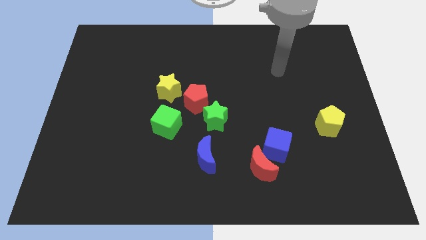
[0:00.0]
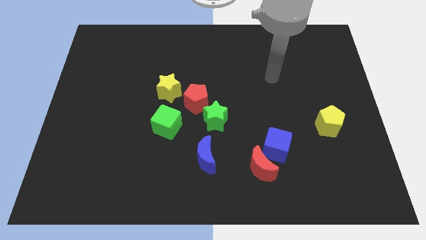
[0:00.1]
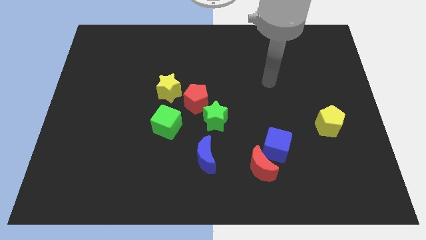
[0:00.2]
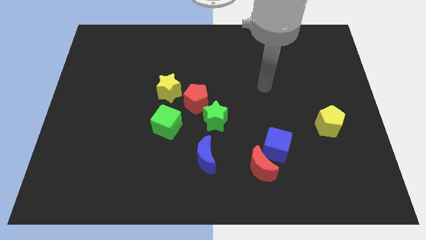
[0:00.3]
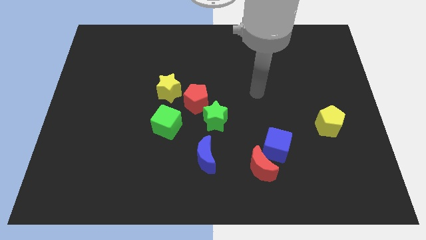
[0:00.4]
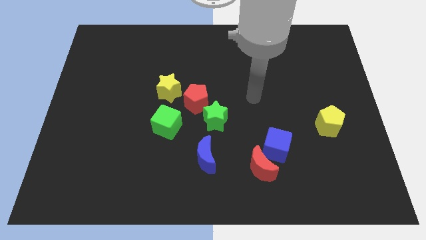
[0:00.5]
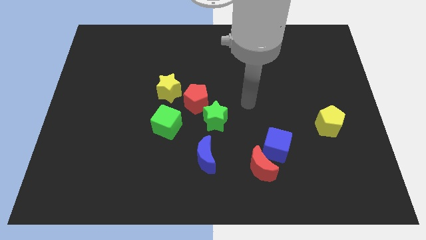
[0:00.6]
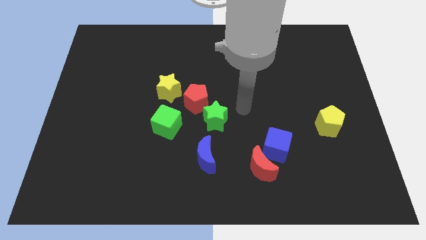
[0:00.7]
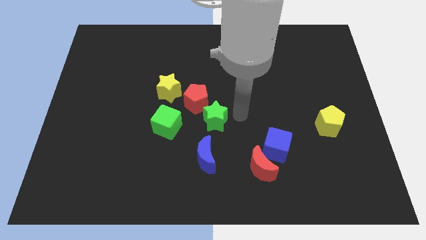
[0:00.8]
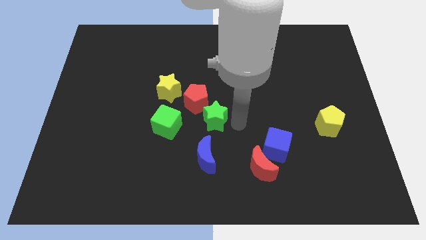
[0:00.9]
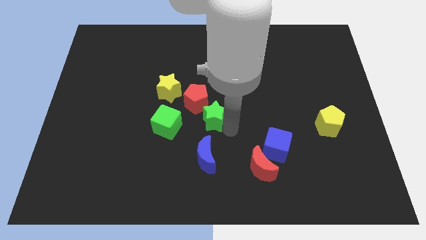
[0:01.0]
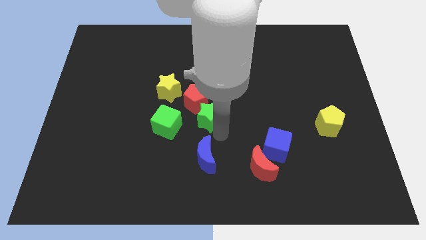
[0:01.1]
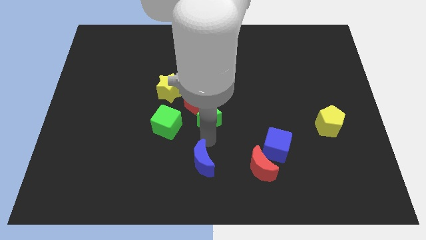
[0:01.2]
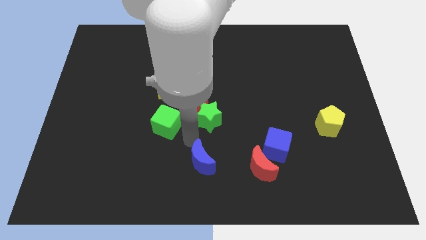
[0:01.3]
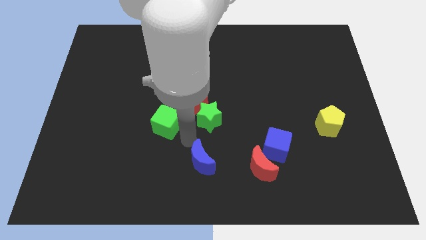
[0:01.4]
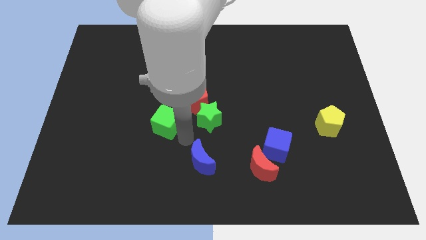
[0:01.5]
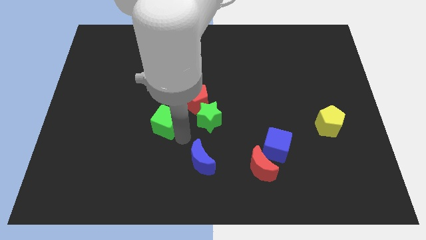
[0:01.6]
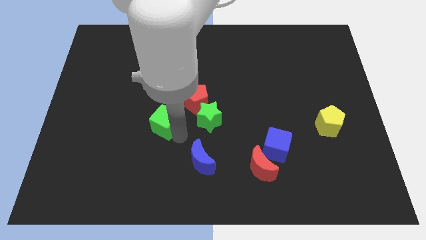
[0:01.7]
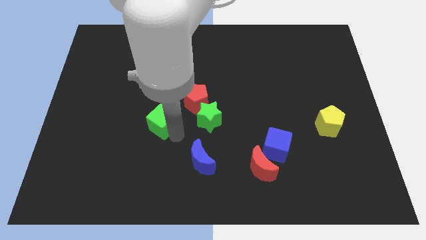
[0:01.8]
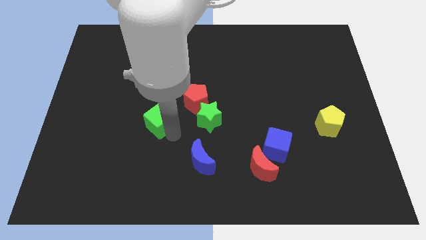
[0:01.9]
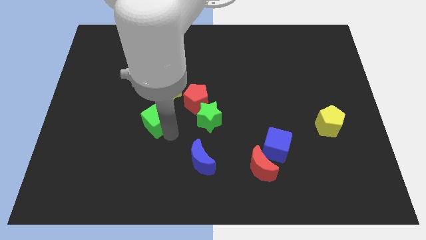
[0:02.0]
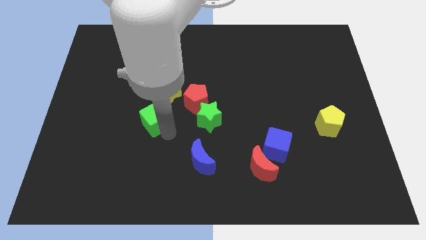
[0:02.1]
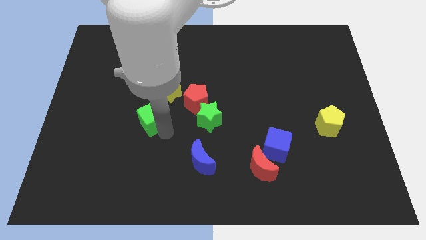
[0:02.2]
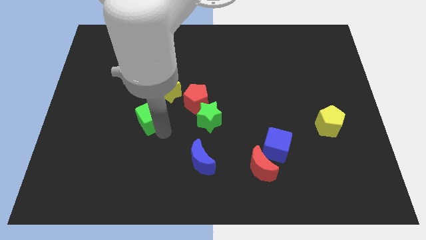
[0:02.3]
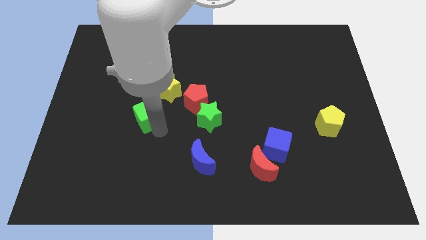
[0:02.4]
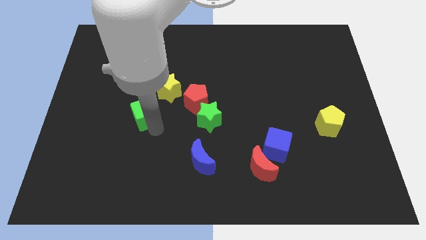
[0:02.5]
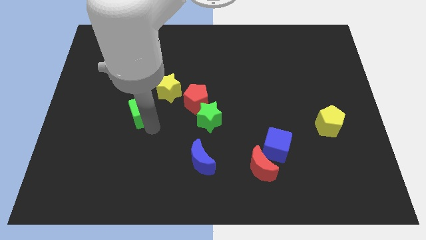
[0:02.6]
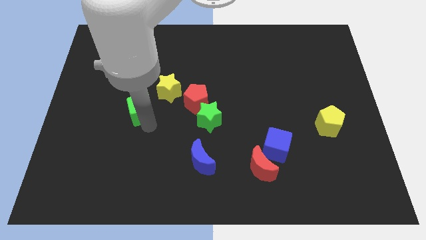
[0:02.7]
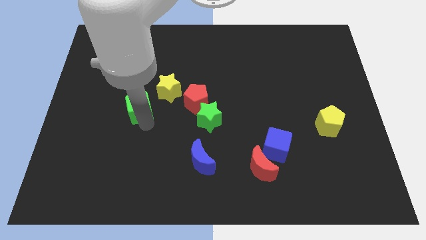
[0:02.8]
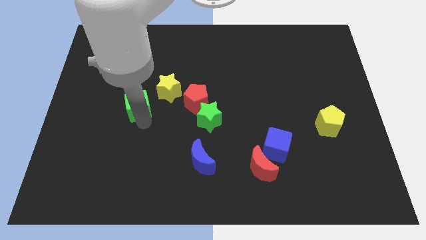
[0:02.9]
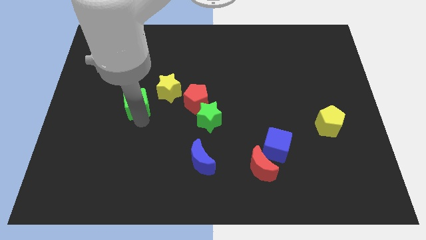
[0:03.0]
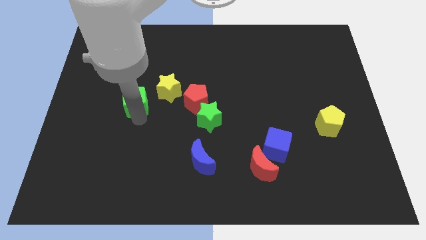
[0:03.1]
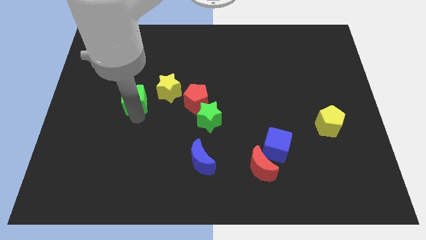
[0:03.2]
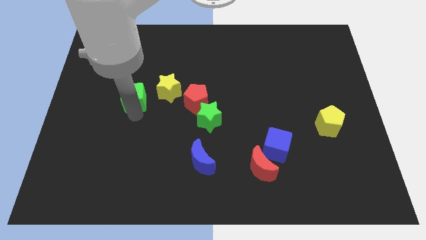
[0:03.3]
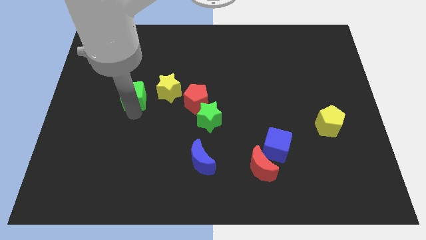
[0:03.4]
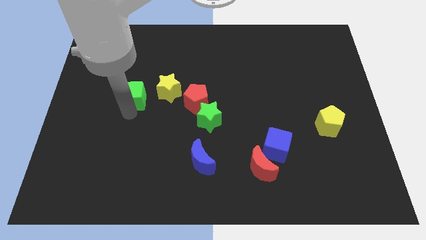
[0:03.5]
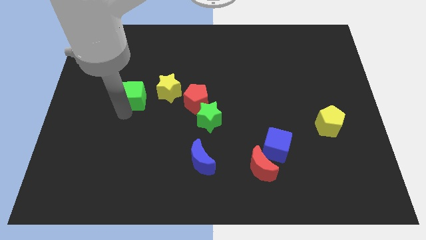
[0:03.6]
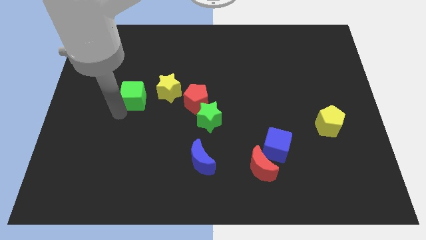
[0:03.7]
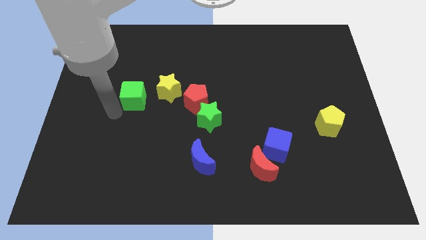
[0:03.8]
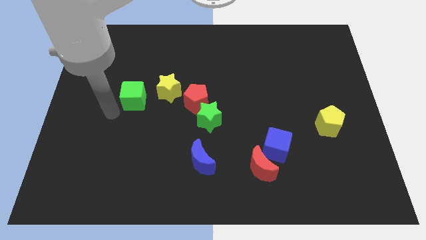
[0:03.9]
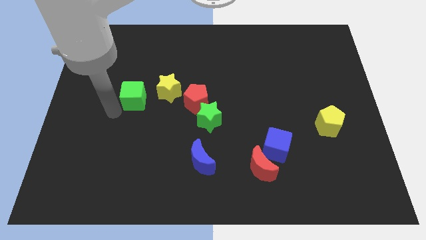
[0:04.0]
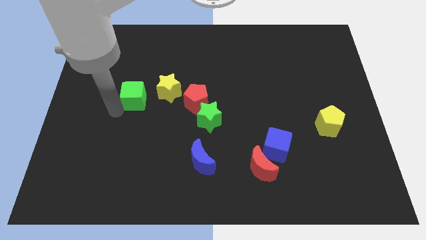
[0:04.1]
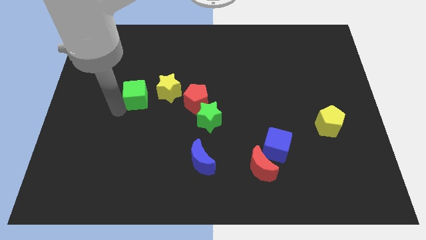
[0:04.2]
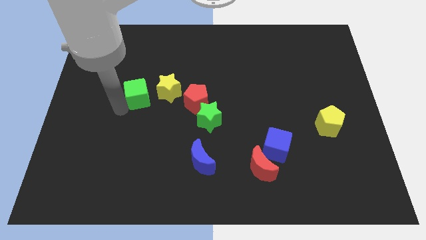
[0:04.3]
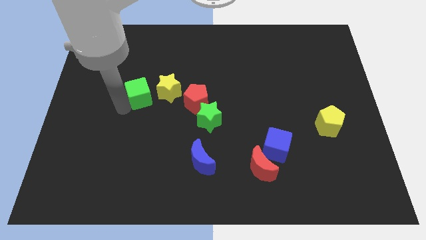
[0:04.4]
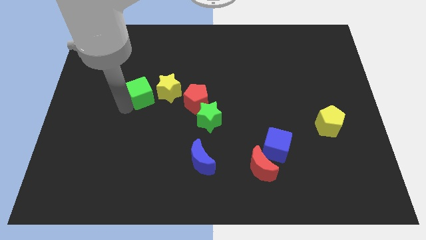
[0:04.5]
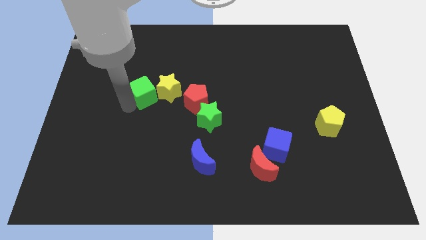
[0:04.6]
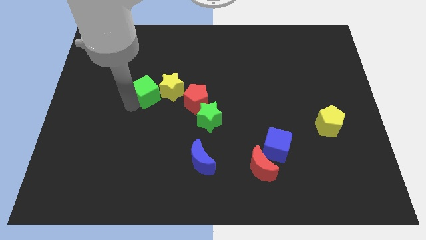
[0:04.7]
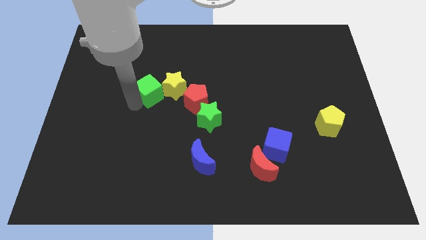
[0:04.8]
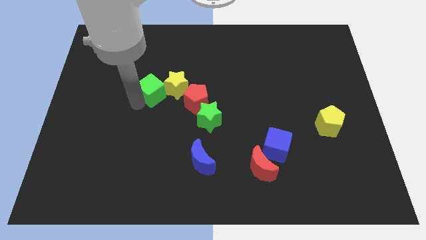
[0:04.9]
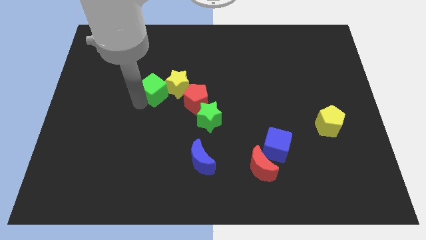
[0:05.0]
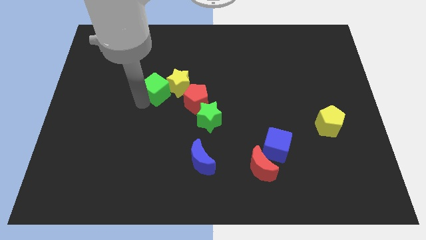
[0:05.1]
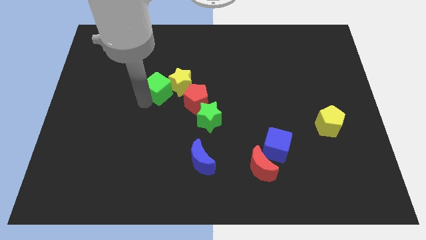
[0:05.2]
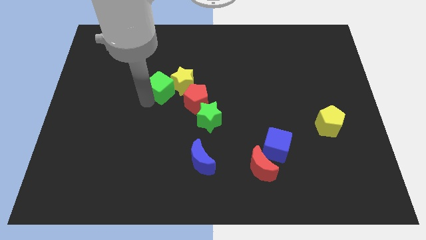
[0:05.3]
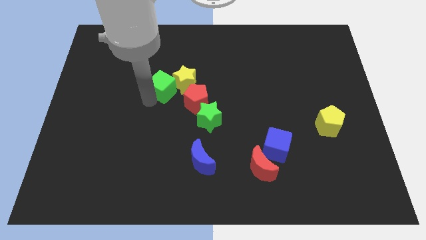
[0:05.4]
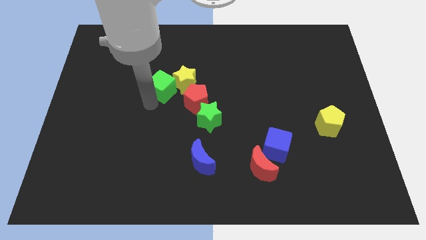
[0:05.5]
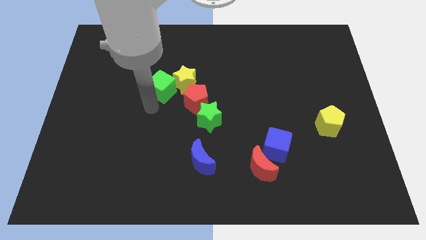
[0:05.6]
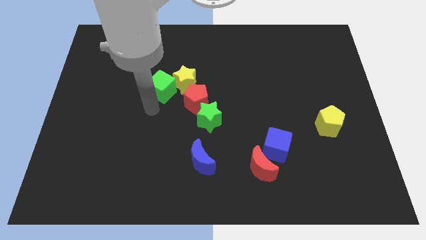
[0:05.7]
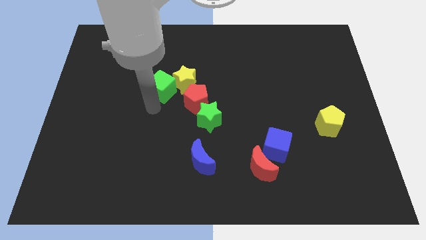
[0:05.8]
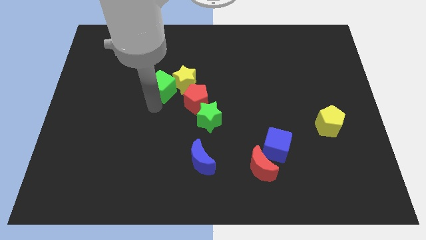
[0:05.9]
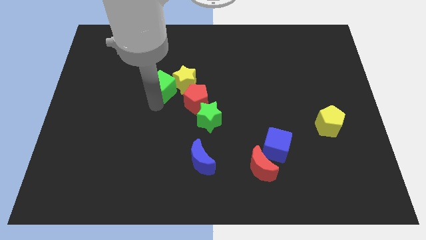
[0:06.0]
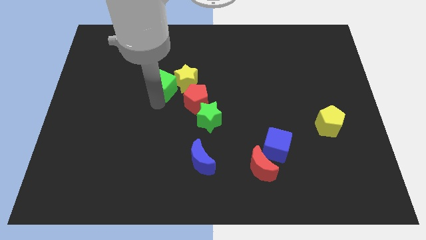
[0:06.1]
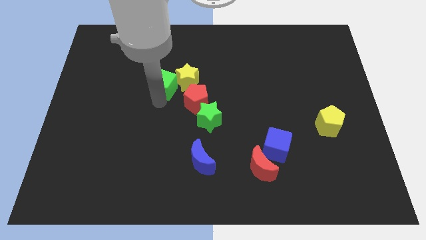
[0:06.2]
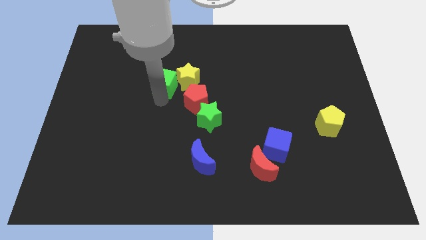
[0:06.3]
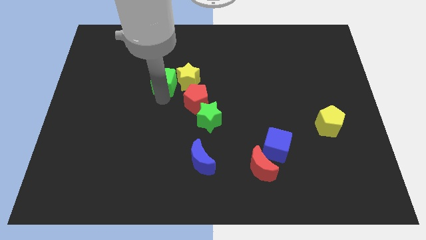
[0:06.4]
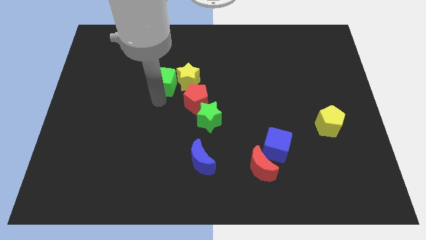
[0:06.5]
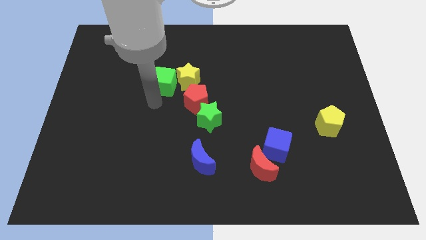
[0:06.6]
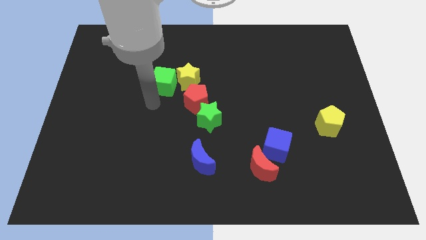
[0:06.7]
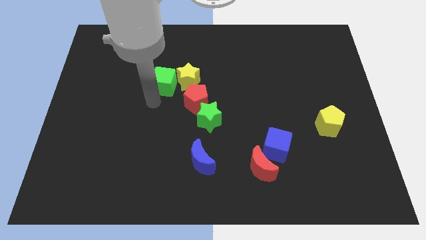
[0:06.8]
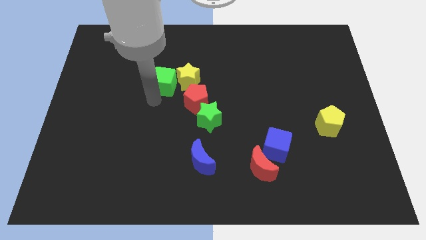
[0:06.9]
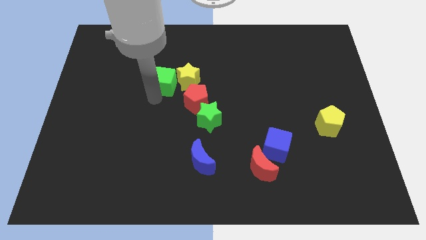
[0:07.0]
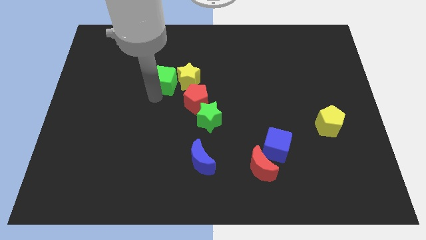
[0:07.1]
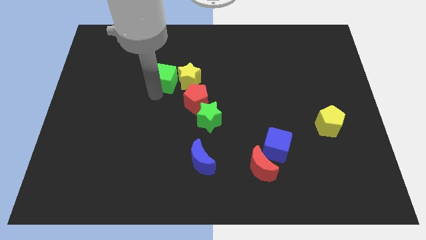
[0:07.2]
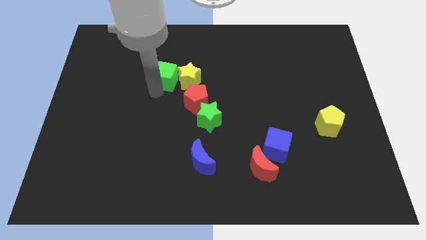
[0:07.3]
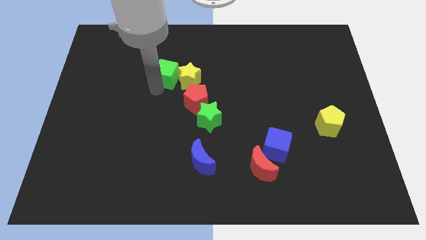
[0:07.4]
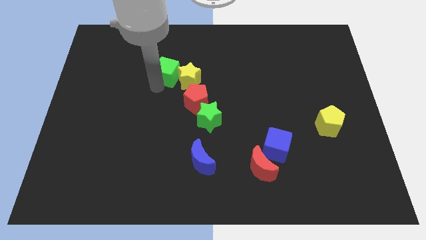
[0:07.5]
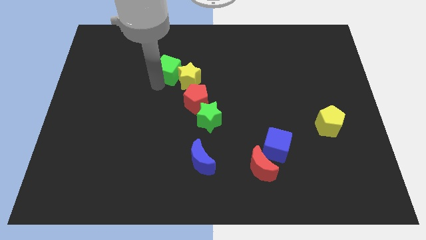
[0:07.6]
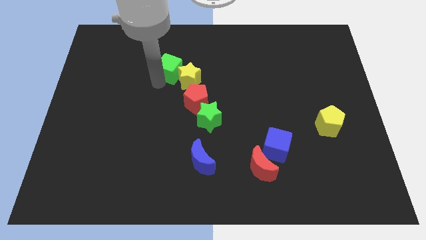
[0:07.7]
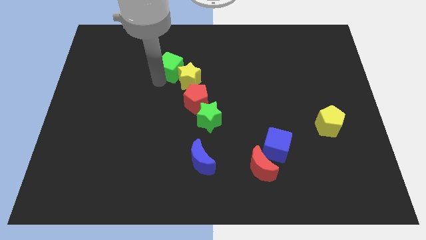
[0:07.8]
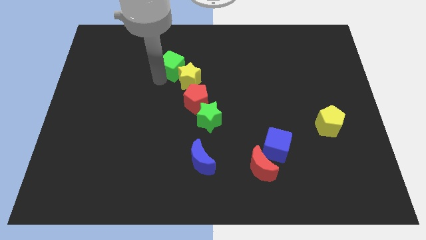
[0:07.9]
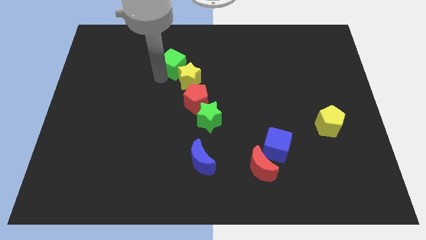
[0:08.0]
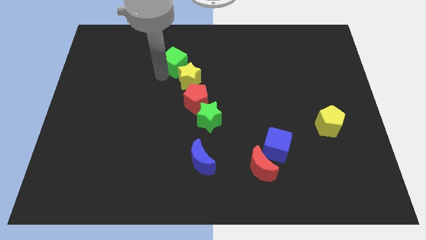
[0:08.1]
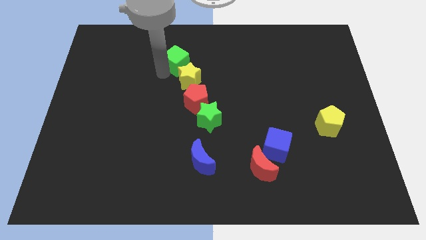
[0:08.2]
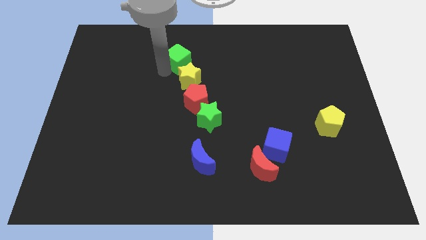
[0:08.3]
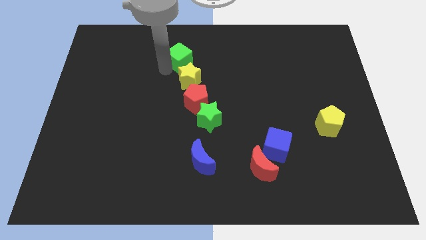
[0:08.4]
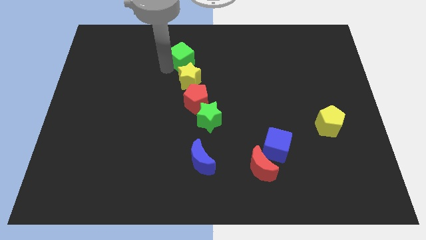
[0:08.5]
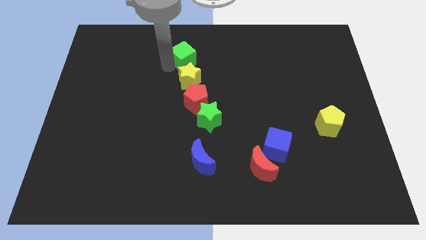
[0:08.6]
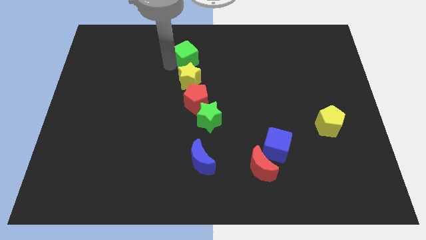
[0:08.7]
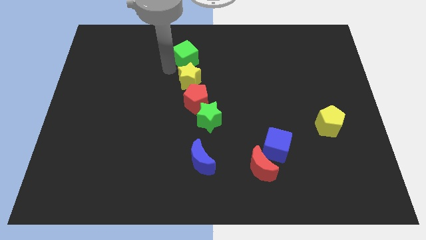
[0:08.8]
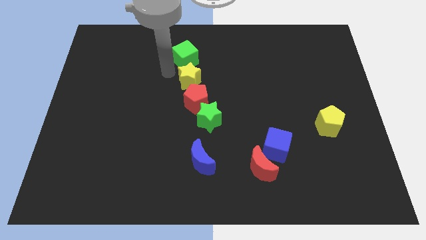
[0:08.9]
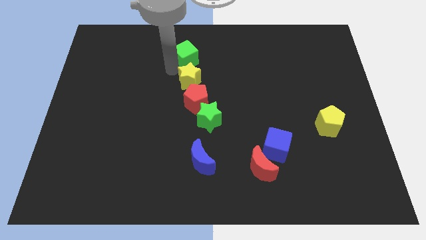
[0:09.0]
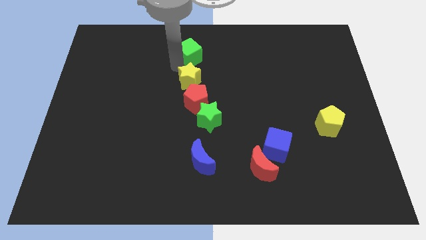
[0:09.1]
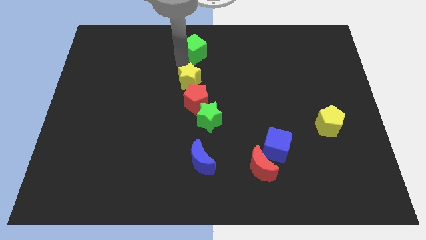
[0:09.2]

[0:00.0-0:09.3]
push the green cube to the towards your base
